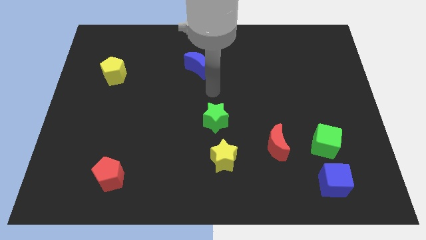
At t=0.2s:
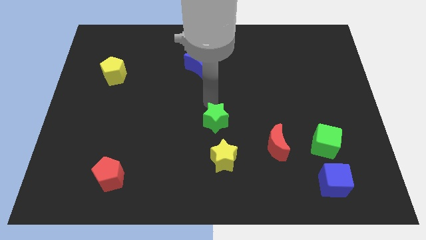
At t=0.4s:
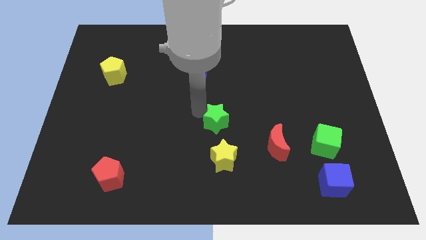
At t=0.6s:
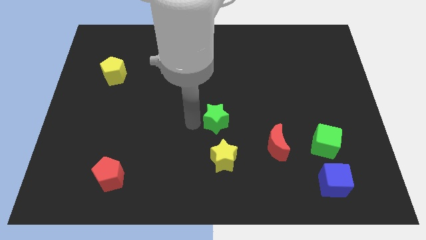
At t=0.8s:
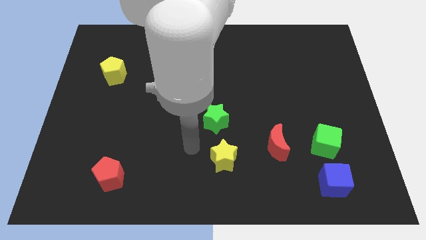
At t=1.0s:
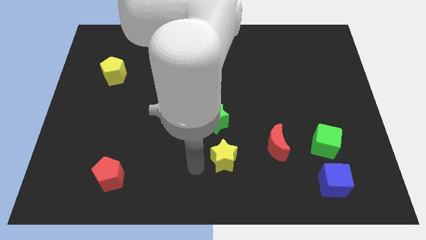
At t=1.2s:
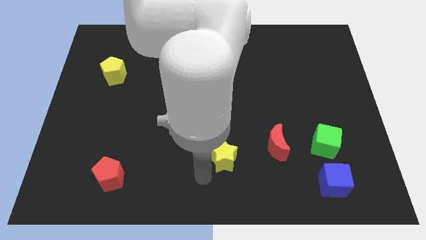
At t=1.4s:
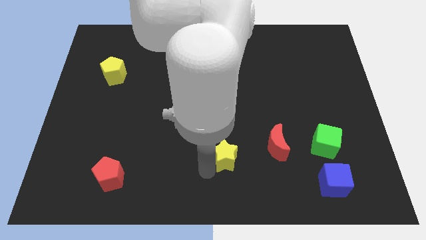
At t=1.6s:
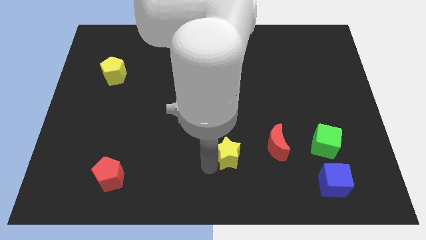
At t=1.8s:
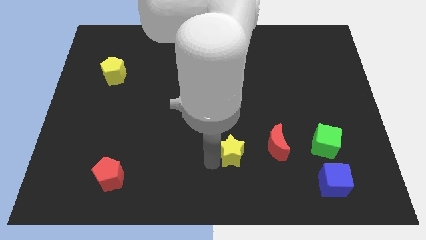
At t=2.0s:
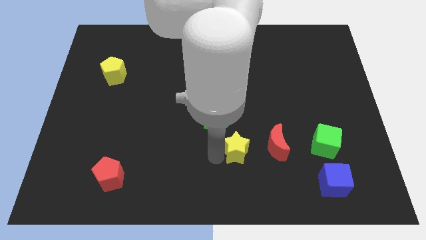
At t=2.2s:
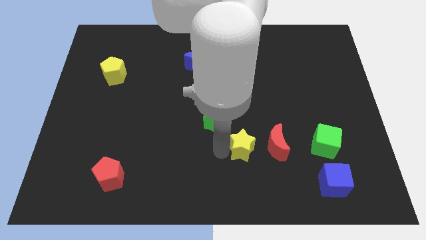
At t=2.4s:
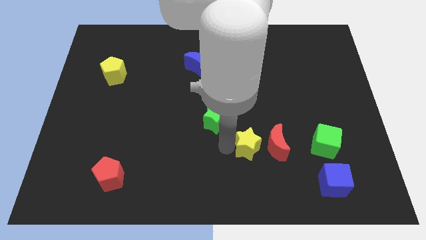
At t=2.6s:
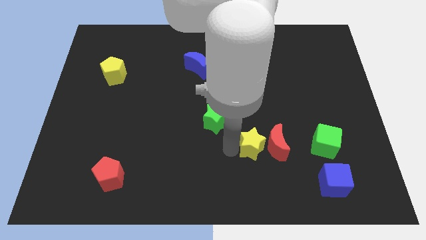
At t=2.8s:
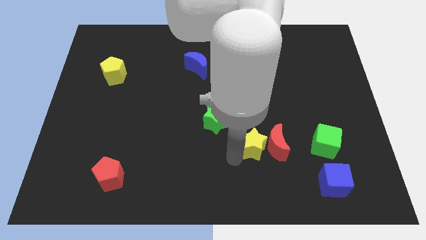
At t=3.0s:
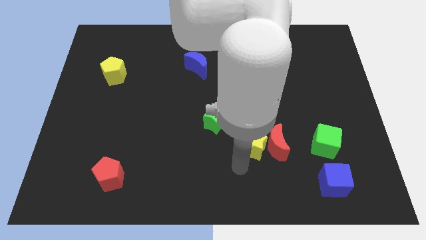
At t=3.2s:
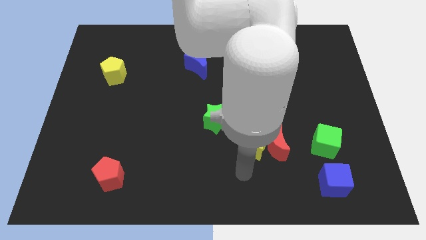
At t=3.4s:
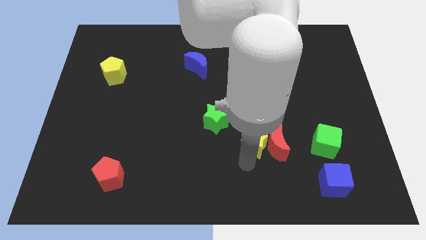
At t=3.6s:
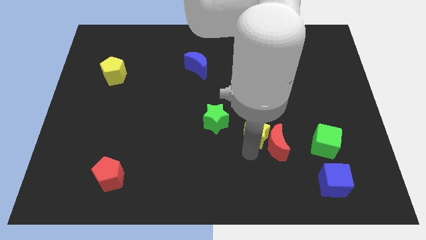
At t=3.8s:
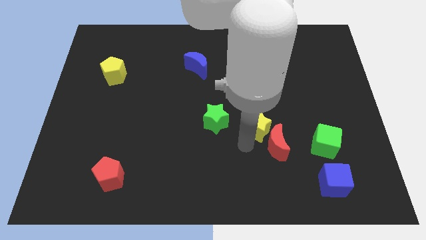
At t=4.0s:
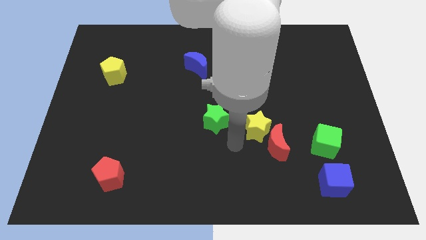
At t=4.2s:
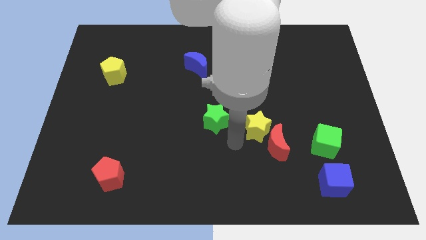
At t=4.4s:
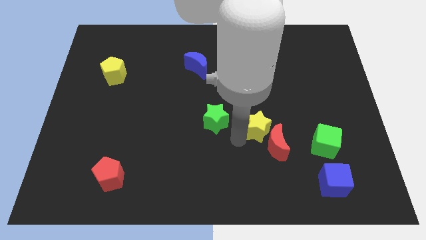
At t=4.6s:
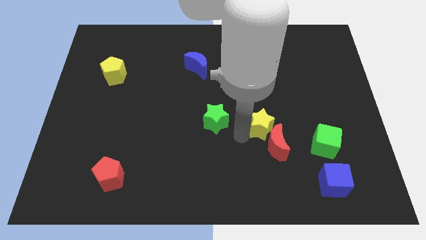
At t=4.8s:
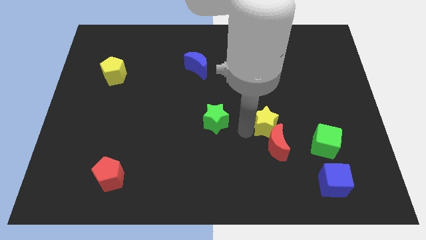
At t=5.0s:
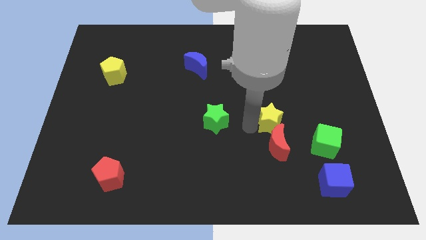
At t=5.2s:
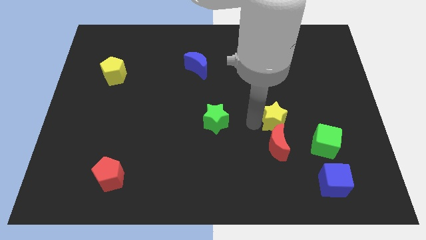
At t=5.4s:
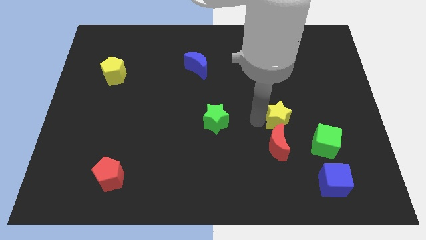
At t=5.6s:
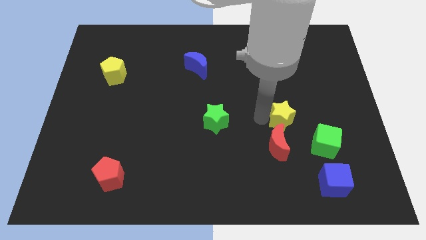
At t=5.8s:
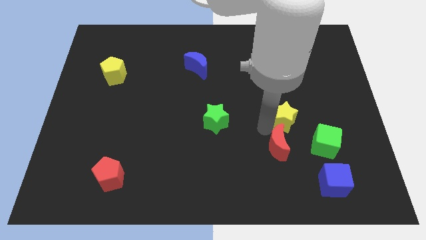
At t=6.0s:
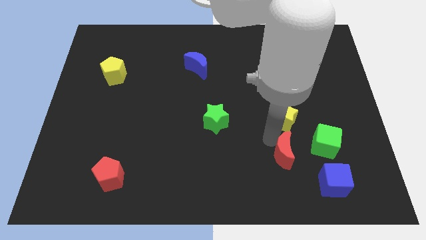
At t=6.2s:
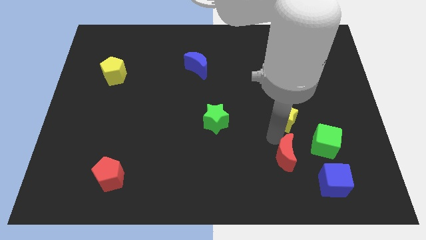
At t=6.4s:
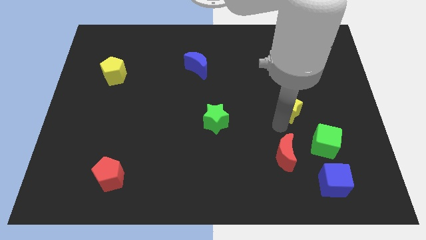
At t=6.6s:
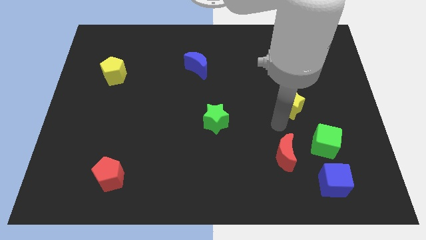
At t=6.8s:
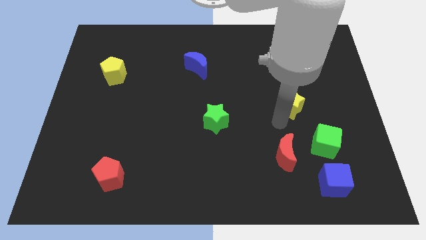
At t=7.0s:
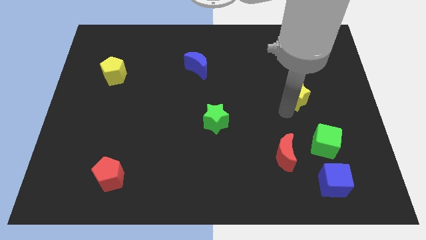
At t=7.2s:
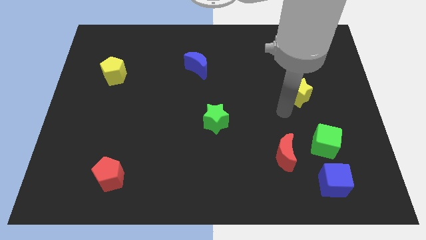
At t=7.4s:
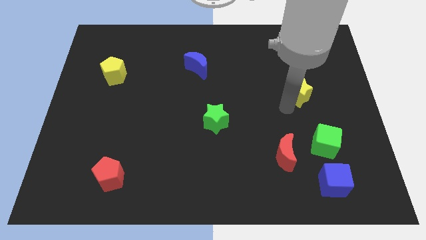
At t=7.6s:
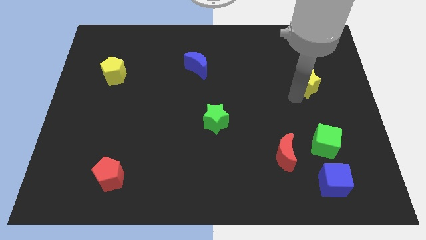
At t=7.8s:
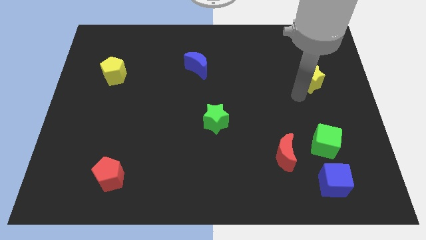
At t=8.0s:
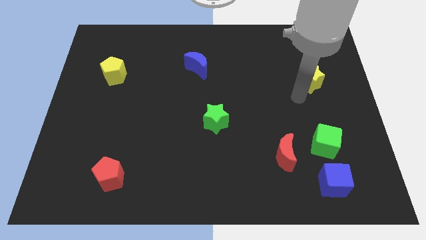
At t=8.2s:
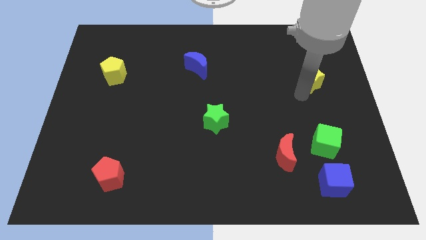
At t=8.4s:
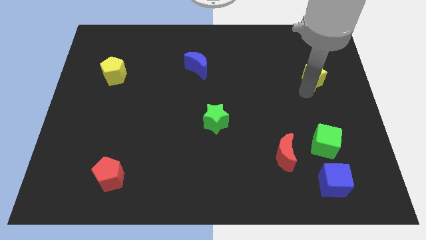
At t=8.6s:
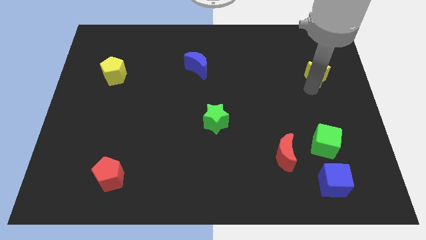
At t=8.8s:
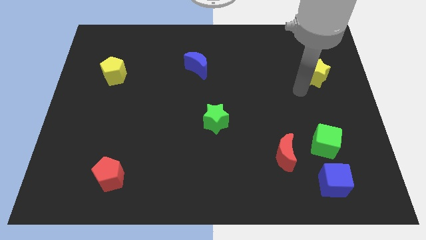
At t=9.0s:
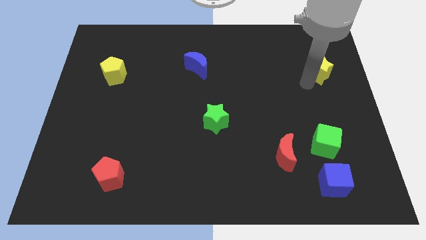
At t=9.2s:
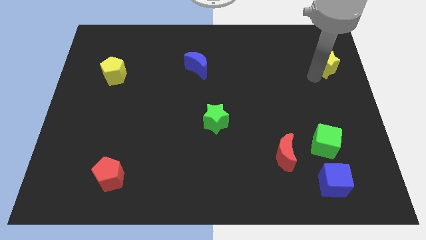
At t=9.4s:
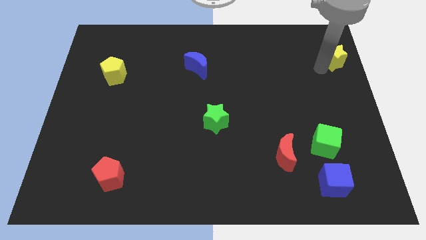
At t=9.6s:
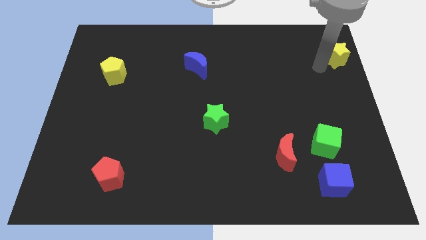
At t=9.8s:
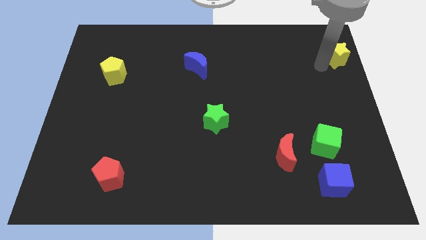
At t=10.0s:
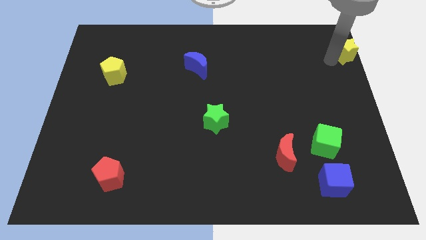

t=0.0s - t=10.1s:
slide the yellow star to the top right

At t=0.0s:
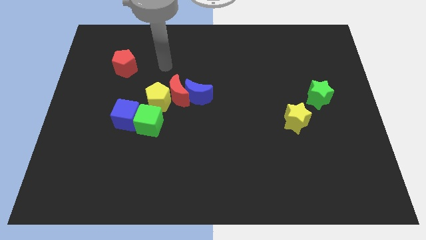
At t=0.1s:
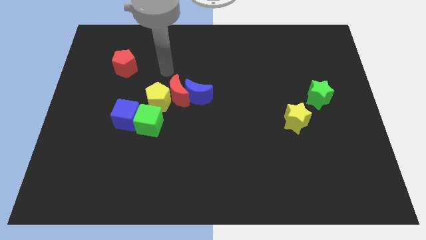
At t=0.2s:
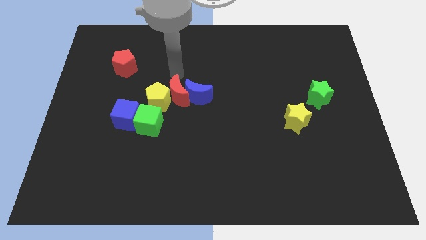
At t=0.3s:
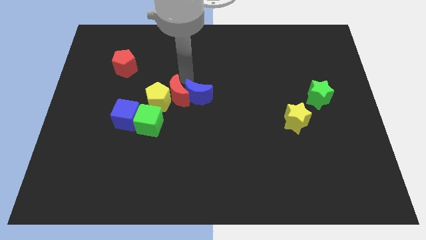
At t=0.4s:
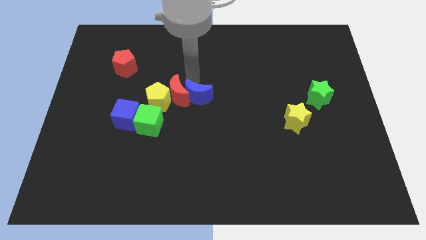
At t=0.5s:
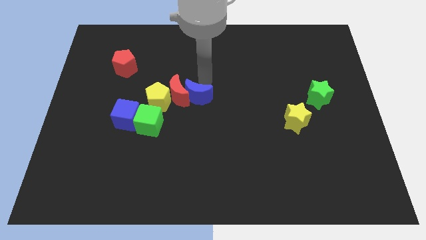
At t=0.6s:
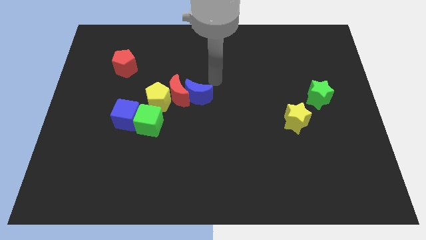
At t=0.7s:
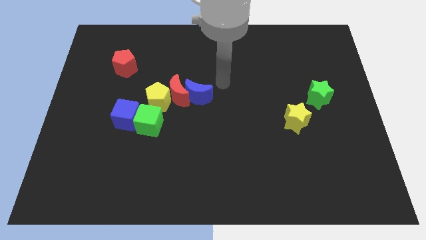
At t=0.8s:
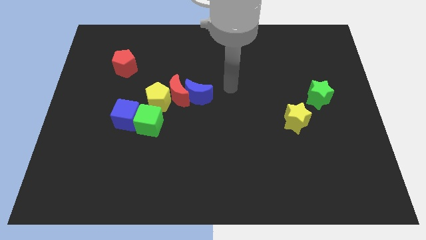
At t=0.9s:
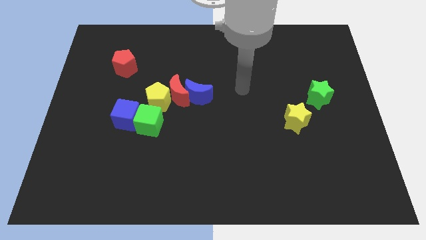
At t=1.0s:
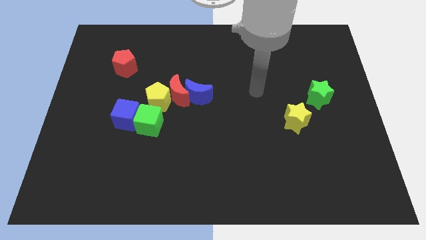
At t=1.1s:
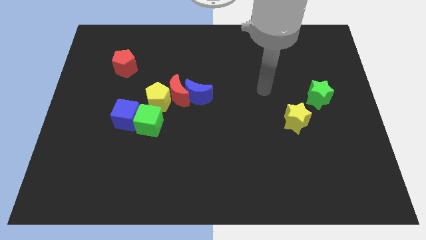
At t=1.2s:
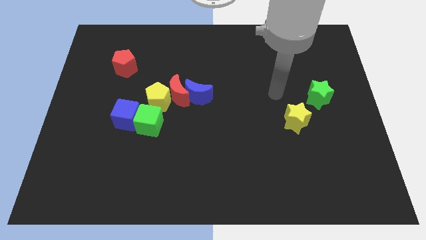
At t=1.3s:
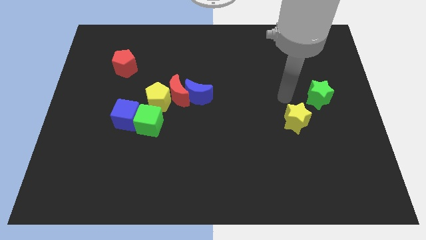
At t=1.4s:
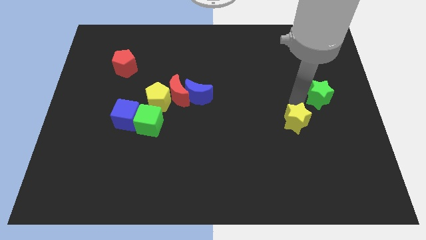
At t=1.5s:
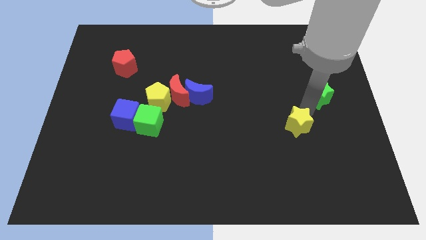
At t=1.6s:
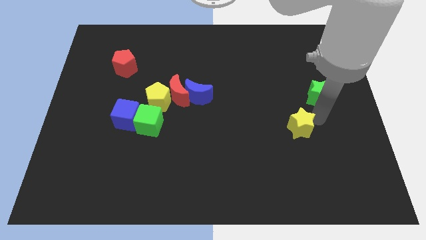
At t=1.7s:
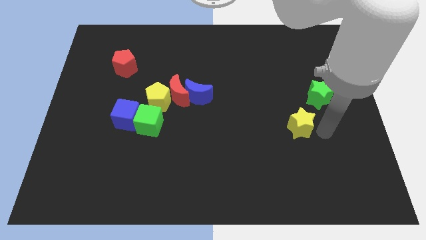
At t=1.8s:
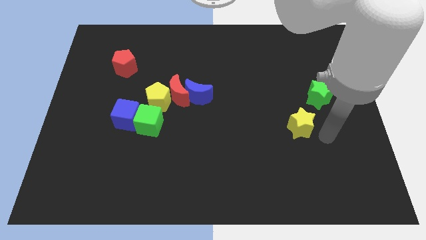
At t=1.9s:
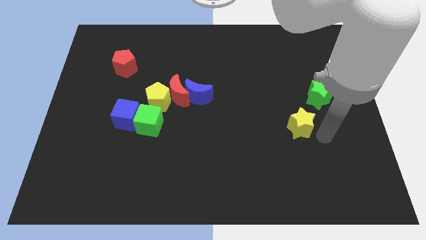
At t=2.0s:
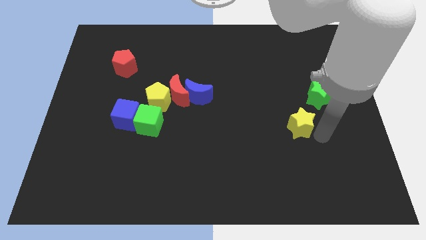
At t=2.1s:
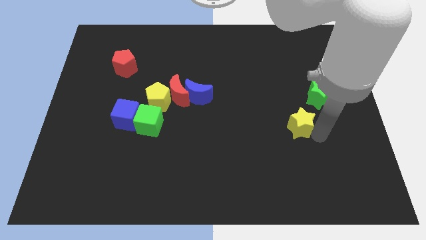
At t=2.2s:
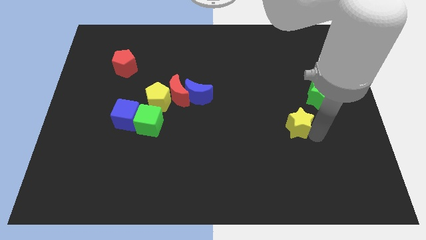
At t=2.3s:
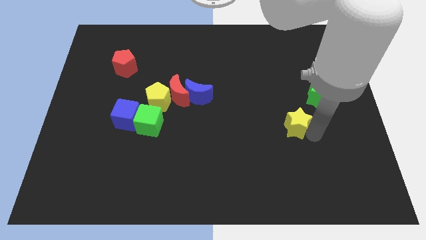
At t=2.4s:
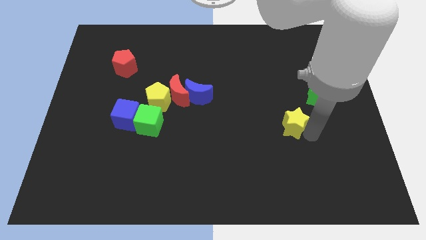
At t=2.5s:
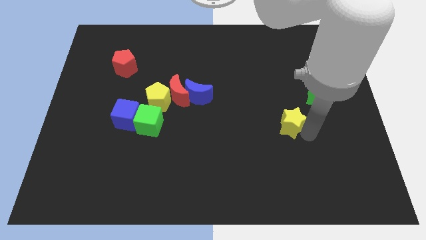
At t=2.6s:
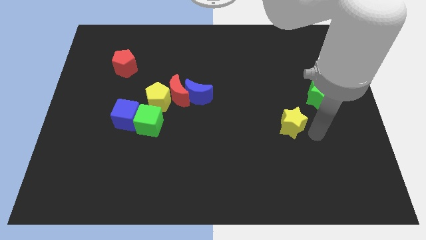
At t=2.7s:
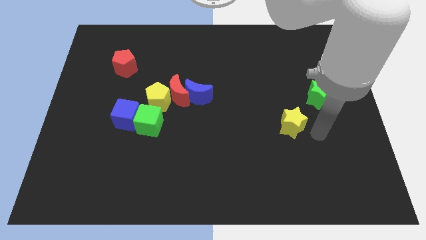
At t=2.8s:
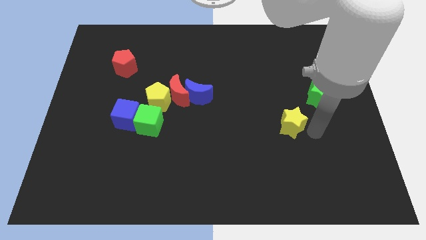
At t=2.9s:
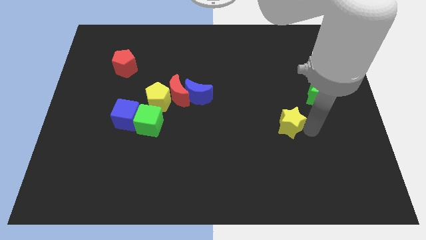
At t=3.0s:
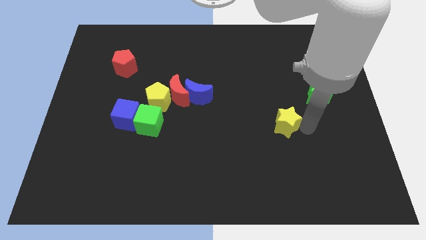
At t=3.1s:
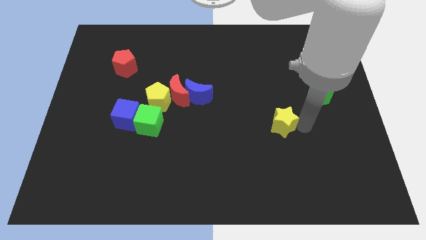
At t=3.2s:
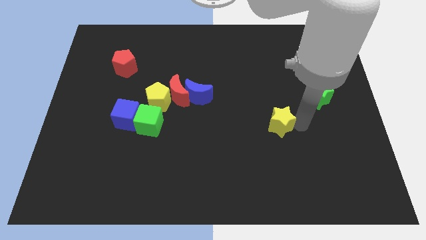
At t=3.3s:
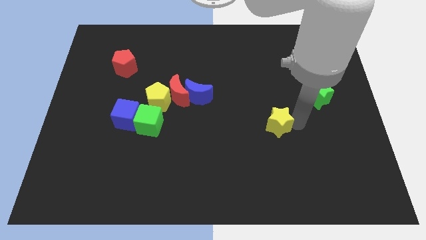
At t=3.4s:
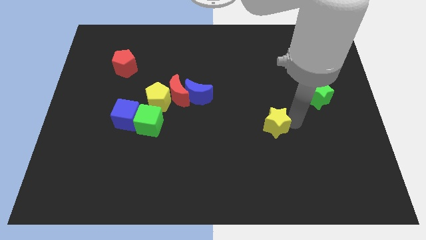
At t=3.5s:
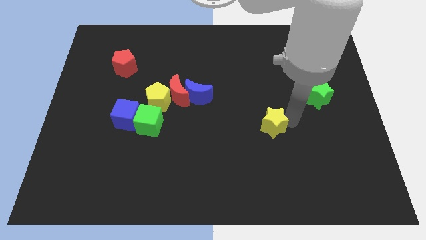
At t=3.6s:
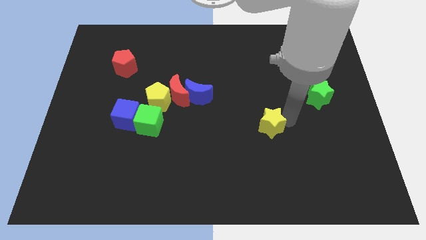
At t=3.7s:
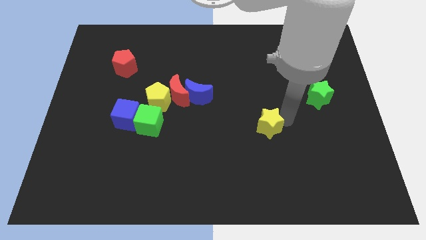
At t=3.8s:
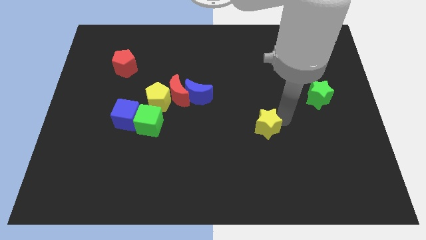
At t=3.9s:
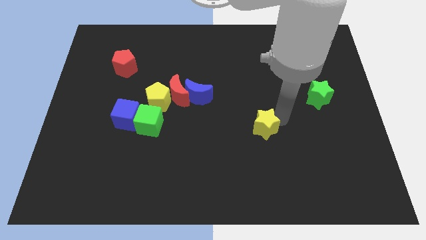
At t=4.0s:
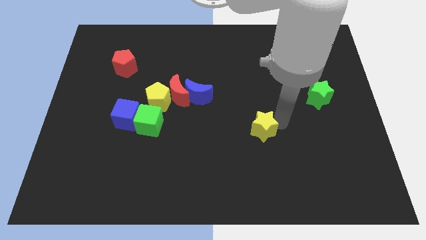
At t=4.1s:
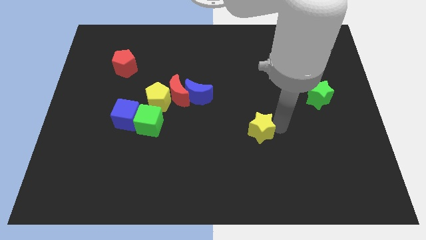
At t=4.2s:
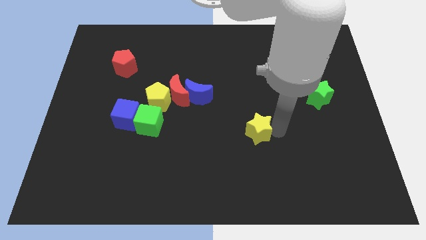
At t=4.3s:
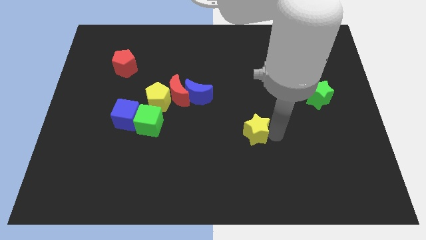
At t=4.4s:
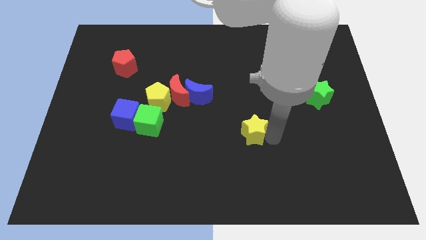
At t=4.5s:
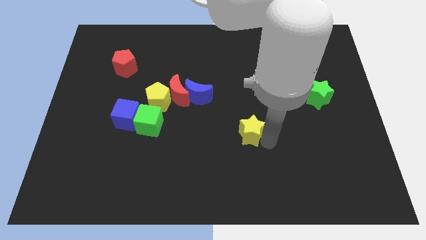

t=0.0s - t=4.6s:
slide the yellow star to the center of the board
